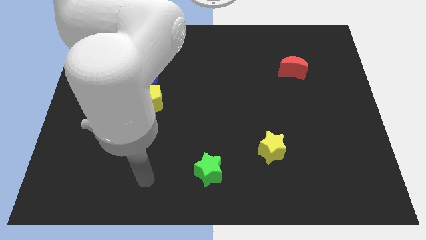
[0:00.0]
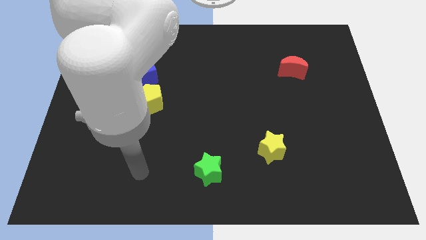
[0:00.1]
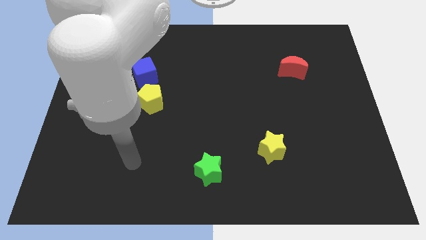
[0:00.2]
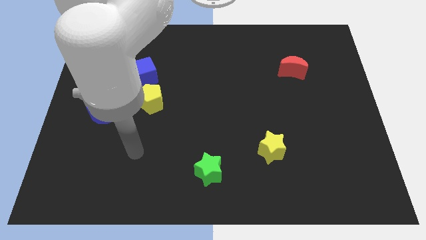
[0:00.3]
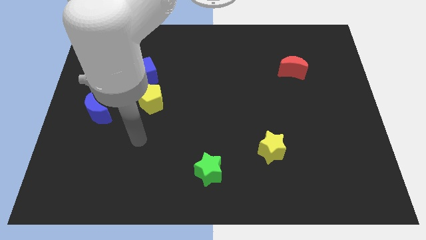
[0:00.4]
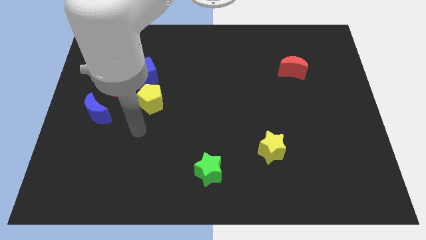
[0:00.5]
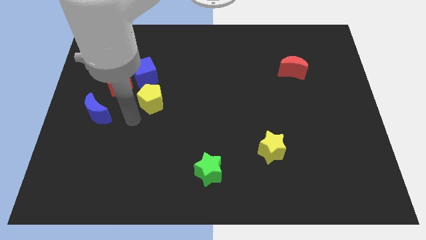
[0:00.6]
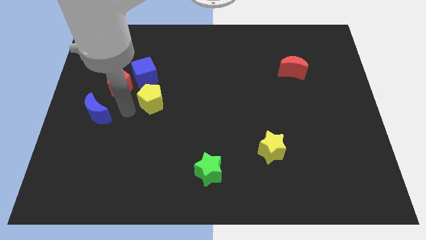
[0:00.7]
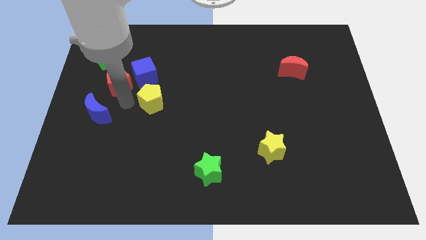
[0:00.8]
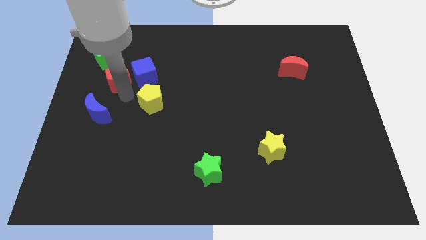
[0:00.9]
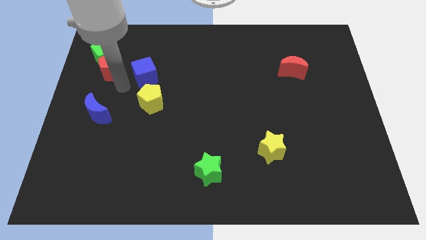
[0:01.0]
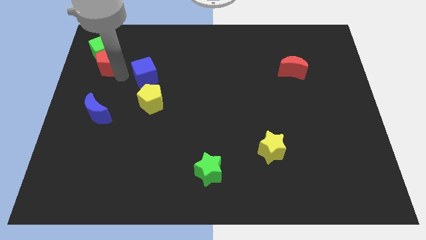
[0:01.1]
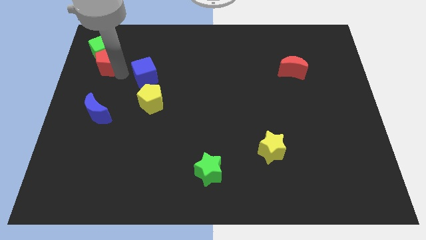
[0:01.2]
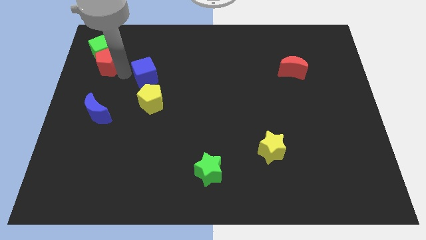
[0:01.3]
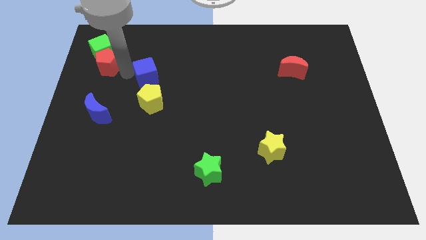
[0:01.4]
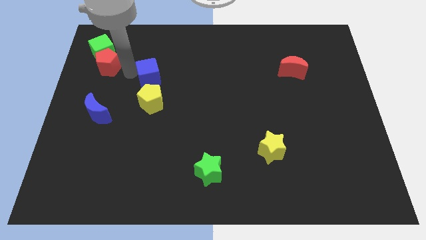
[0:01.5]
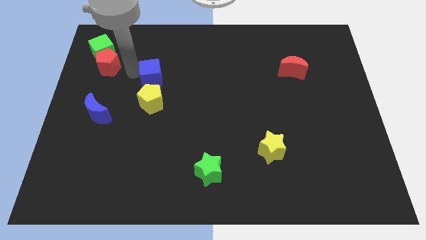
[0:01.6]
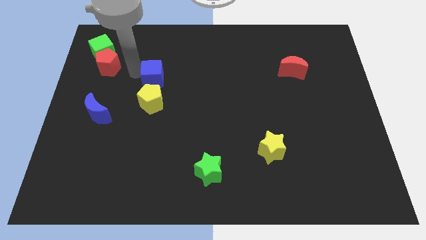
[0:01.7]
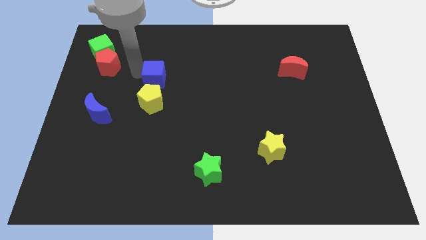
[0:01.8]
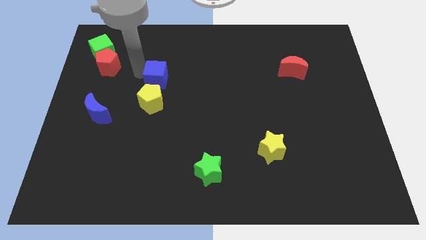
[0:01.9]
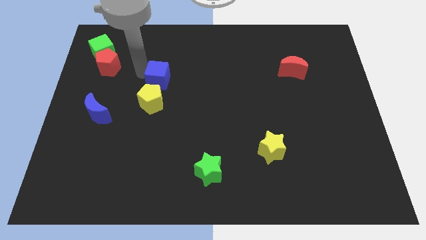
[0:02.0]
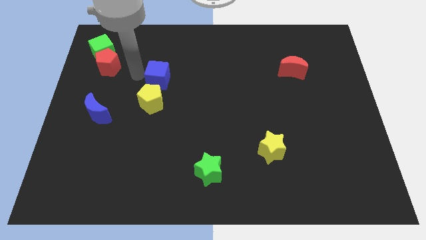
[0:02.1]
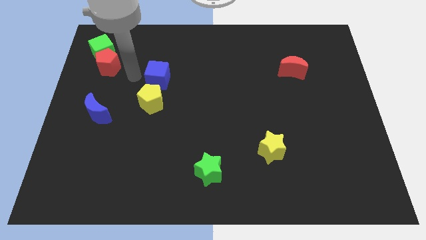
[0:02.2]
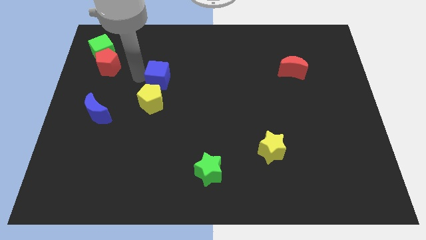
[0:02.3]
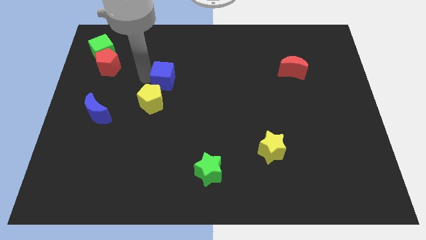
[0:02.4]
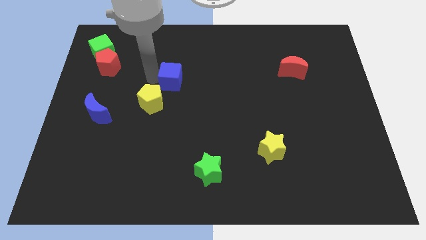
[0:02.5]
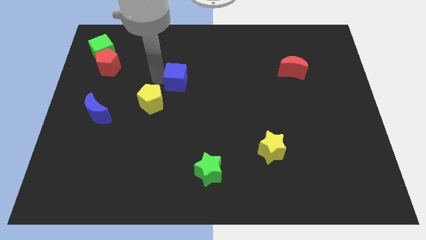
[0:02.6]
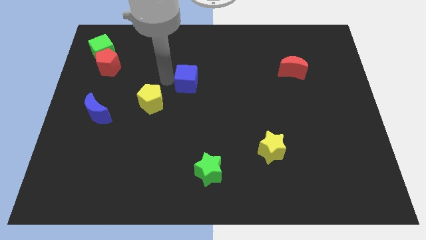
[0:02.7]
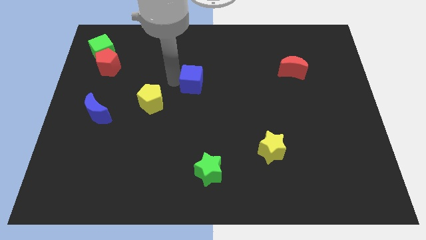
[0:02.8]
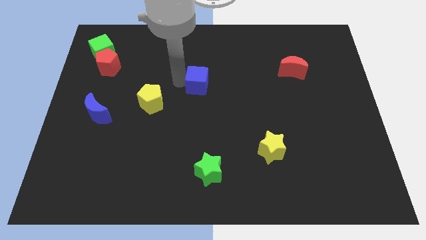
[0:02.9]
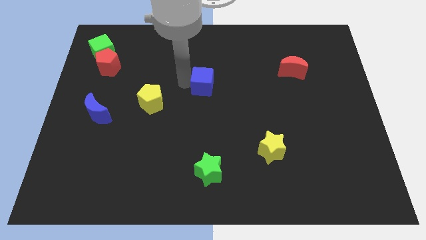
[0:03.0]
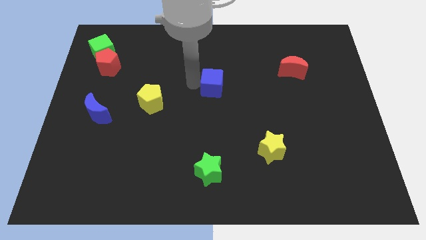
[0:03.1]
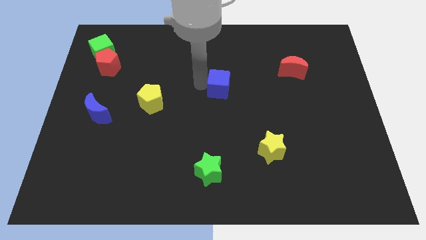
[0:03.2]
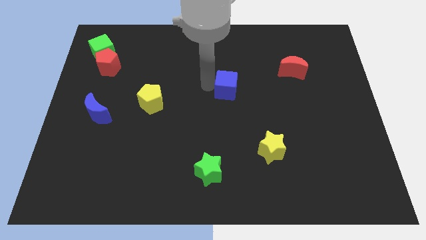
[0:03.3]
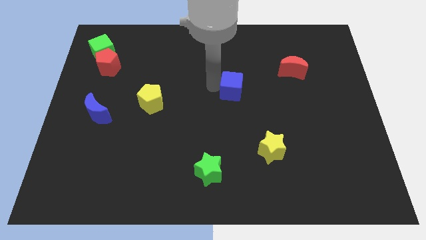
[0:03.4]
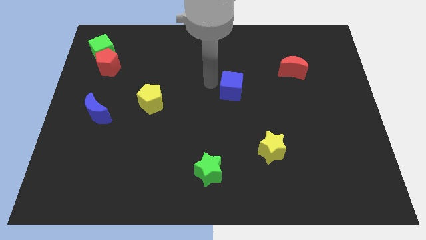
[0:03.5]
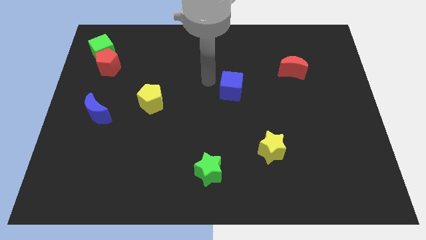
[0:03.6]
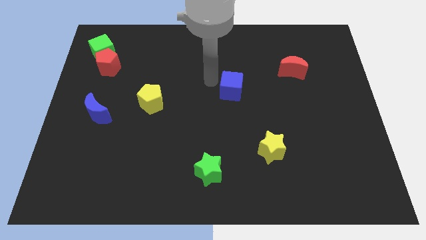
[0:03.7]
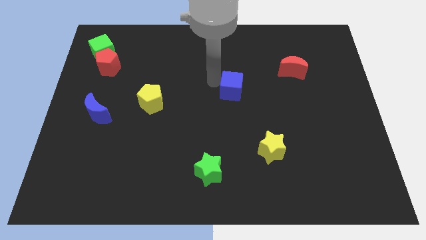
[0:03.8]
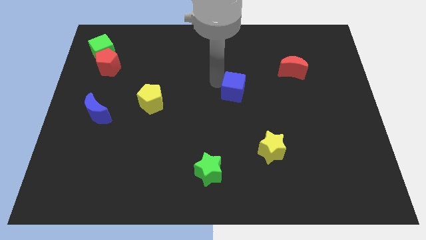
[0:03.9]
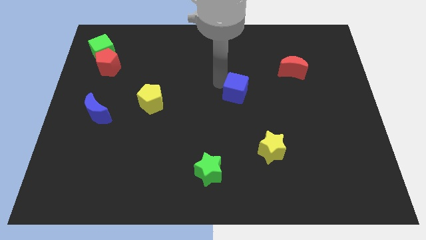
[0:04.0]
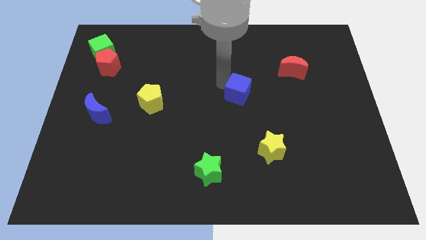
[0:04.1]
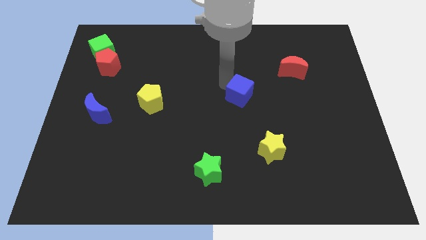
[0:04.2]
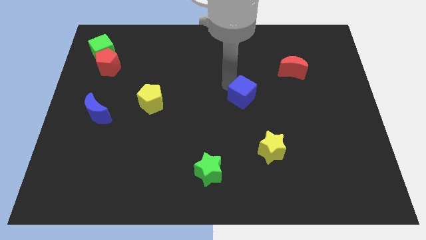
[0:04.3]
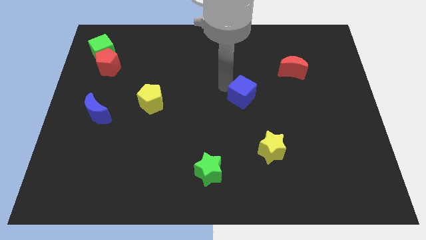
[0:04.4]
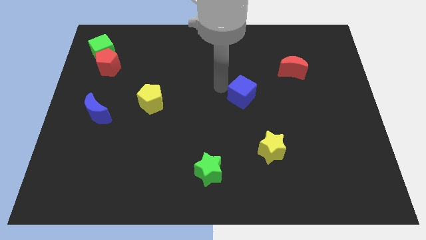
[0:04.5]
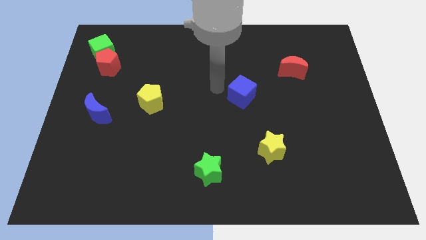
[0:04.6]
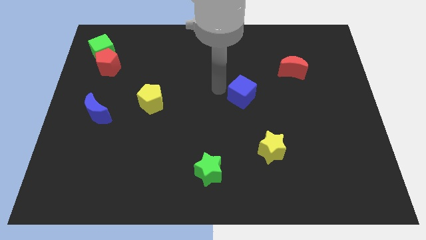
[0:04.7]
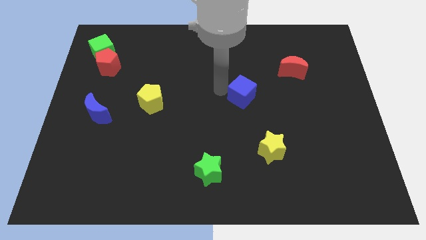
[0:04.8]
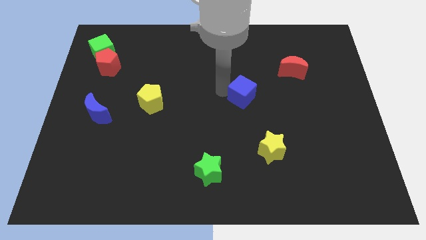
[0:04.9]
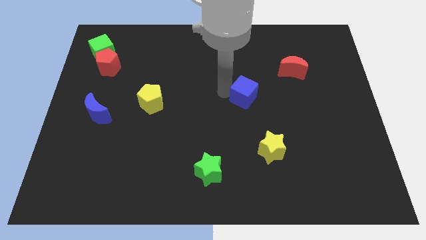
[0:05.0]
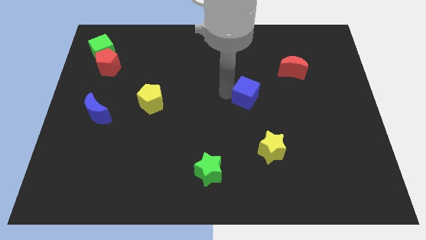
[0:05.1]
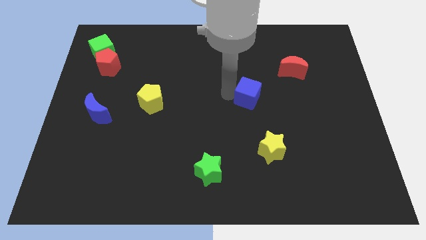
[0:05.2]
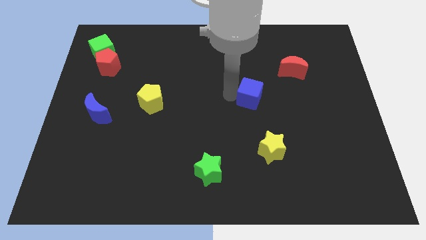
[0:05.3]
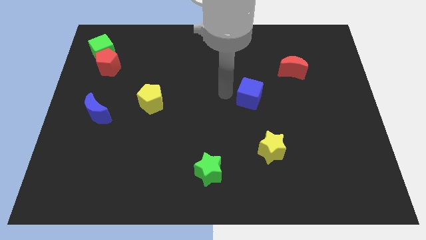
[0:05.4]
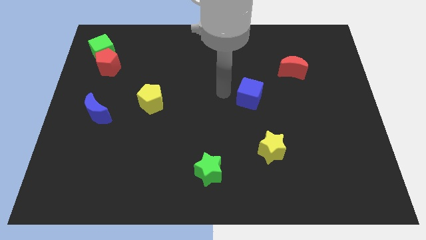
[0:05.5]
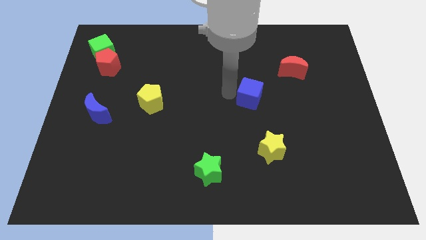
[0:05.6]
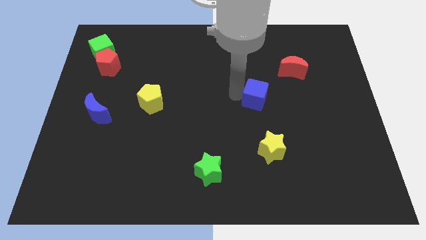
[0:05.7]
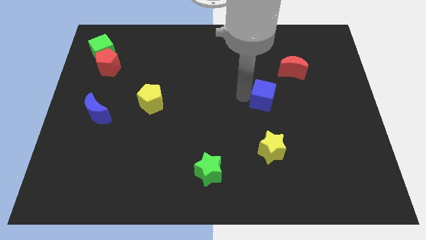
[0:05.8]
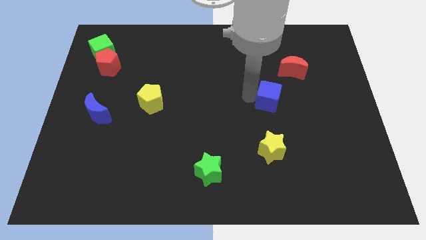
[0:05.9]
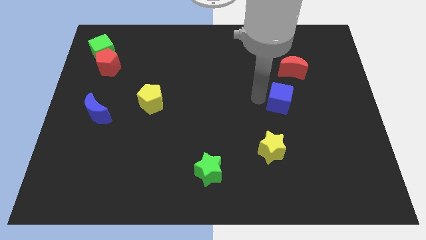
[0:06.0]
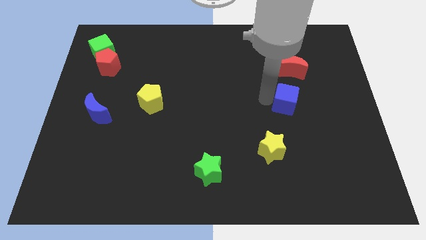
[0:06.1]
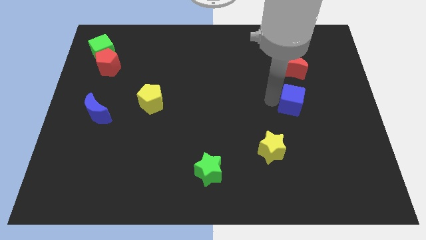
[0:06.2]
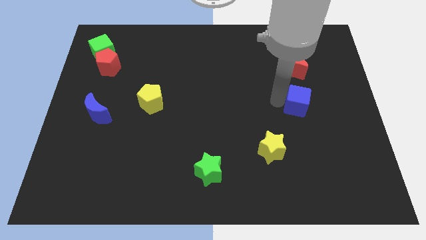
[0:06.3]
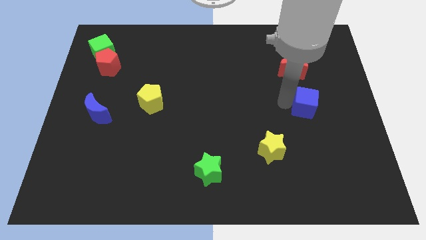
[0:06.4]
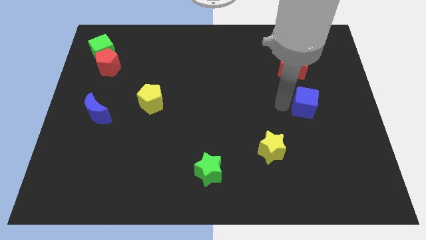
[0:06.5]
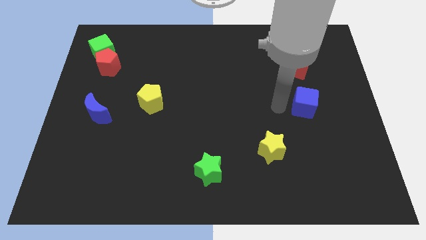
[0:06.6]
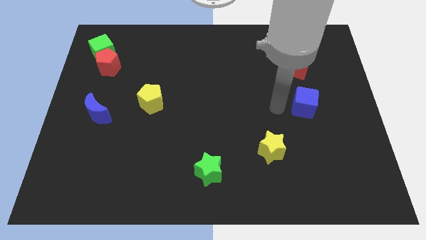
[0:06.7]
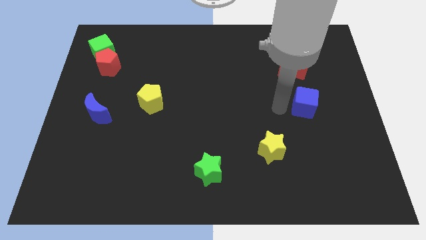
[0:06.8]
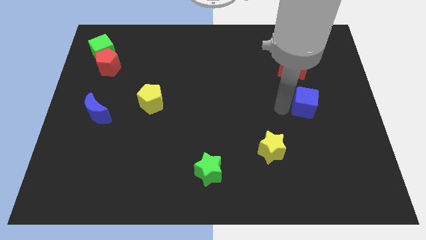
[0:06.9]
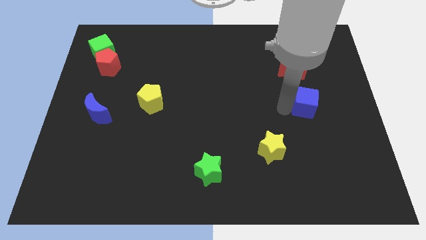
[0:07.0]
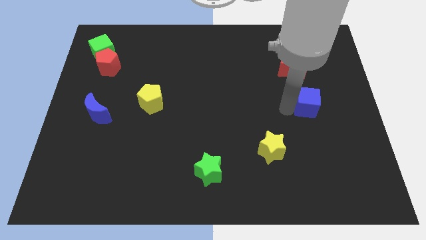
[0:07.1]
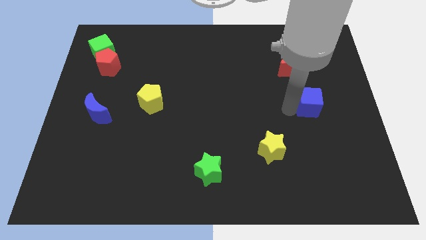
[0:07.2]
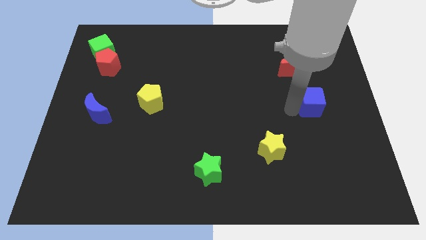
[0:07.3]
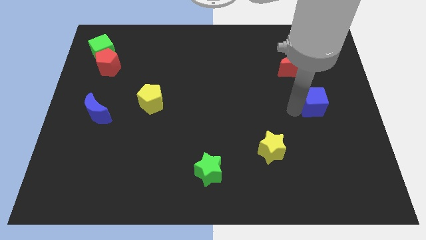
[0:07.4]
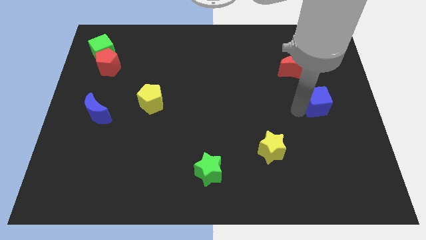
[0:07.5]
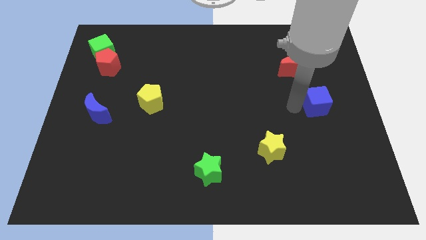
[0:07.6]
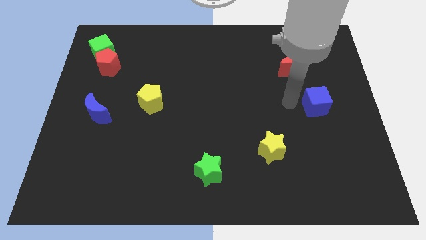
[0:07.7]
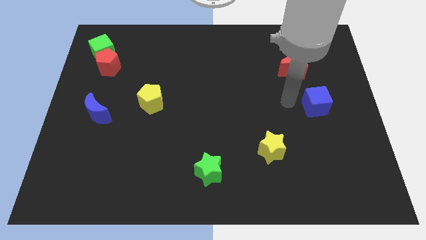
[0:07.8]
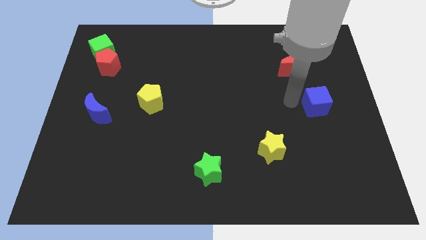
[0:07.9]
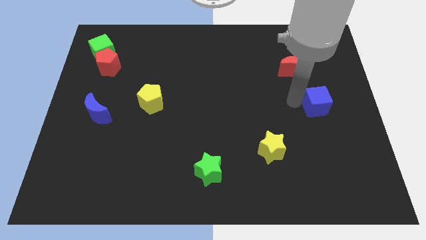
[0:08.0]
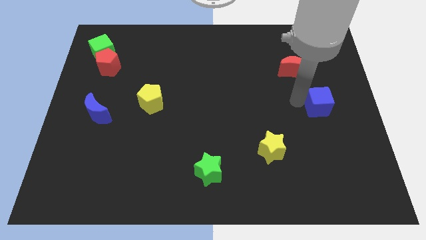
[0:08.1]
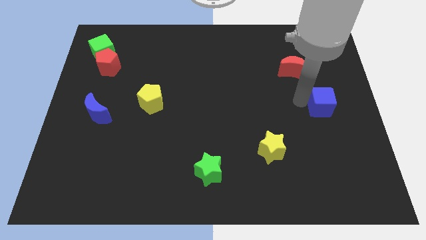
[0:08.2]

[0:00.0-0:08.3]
slide the blue cube to the right side
